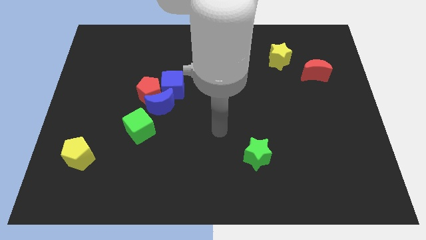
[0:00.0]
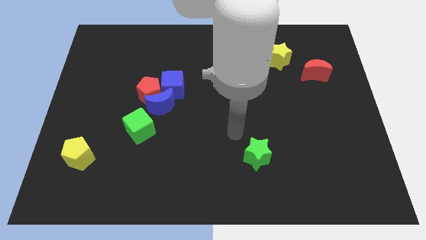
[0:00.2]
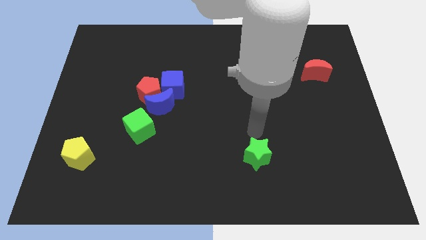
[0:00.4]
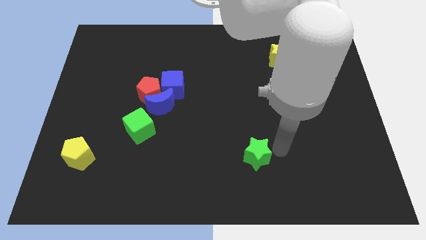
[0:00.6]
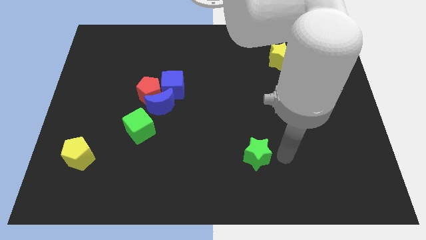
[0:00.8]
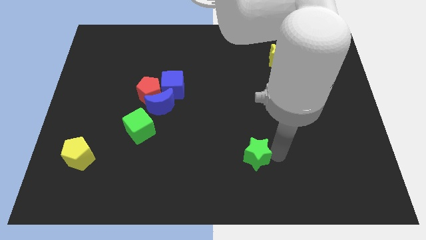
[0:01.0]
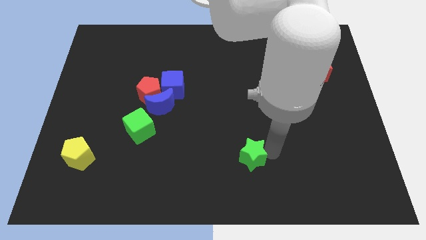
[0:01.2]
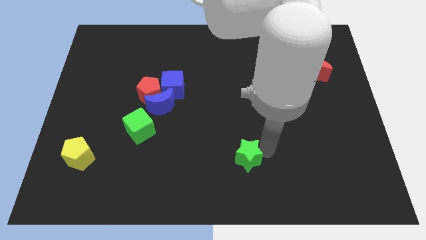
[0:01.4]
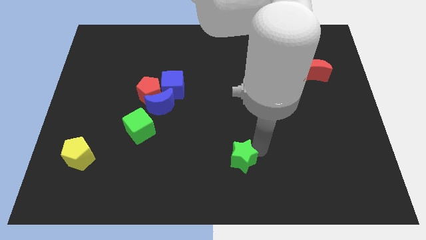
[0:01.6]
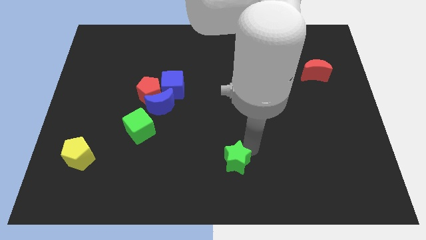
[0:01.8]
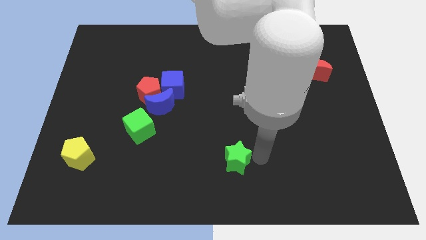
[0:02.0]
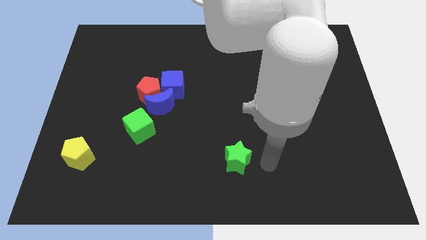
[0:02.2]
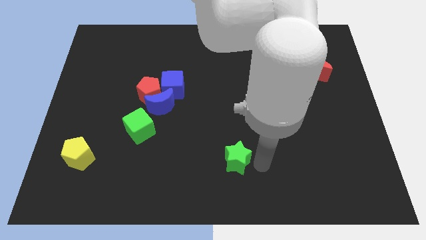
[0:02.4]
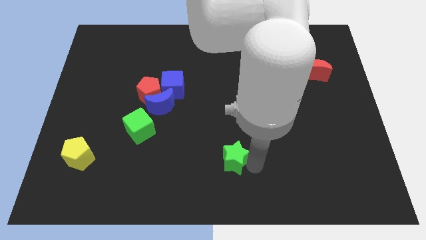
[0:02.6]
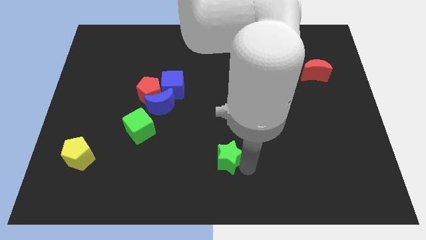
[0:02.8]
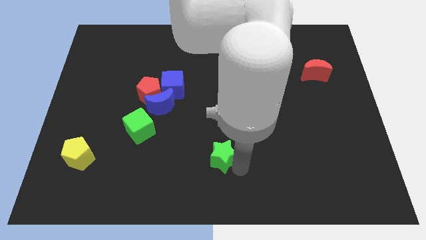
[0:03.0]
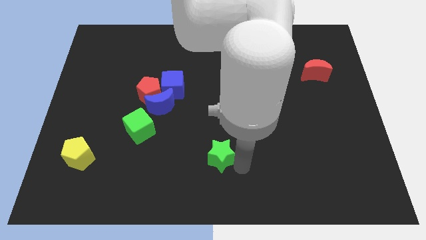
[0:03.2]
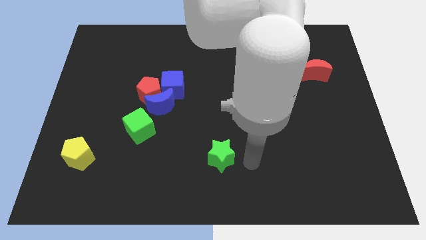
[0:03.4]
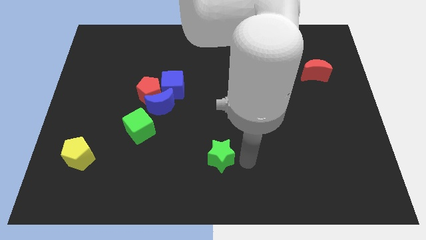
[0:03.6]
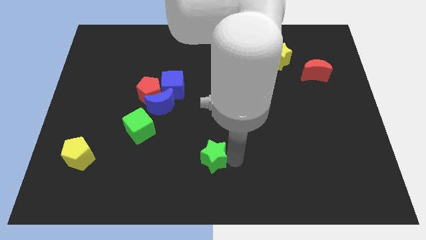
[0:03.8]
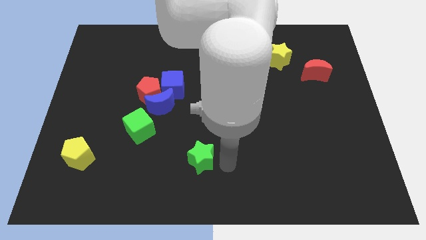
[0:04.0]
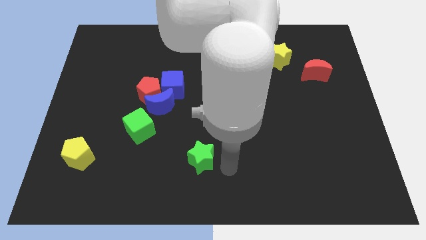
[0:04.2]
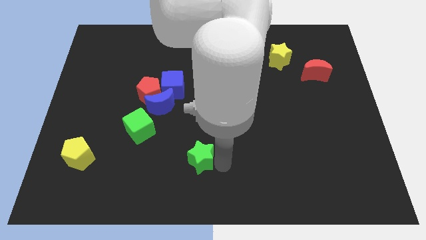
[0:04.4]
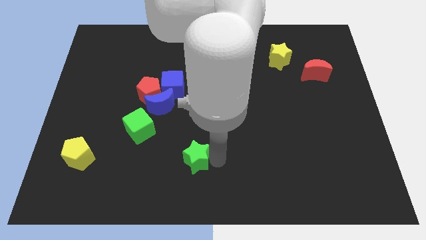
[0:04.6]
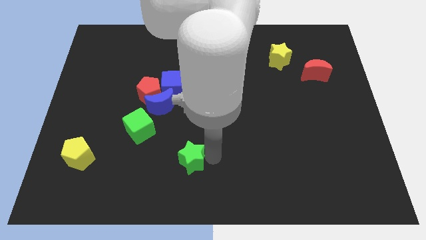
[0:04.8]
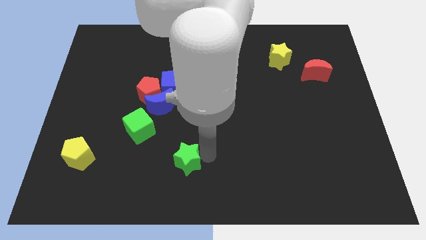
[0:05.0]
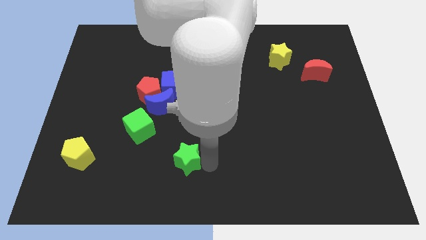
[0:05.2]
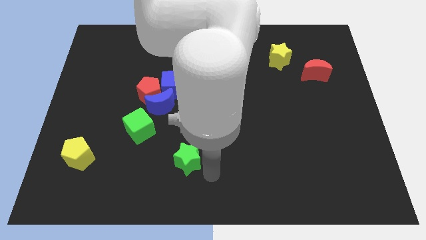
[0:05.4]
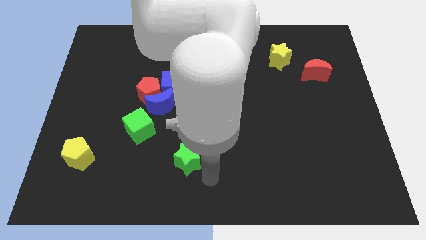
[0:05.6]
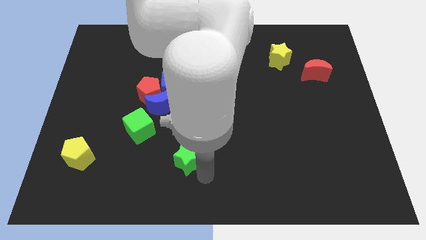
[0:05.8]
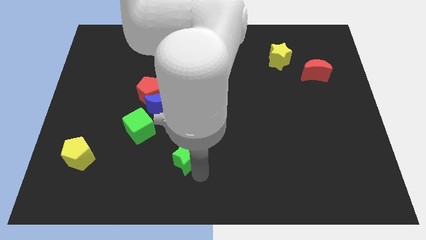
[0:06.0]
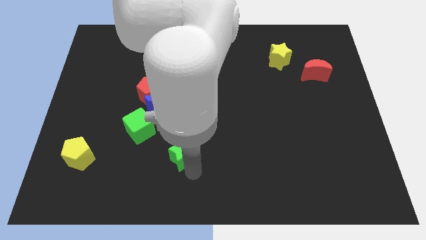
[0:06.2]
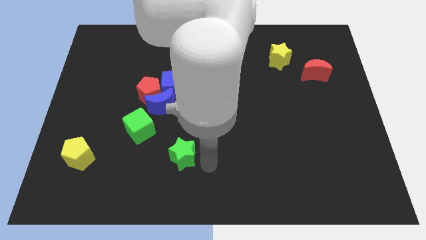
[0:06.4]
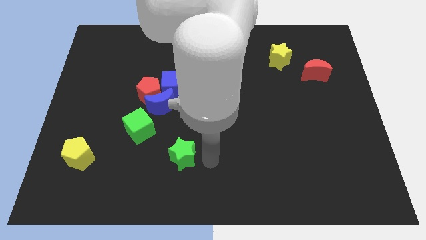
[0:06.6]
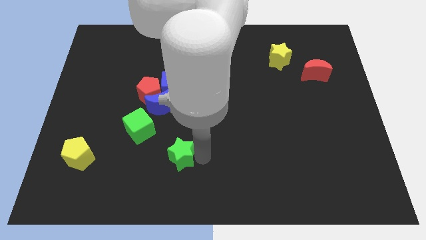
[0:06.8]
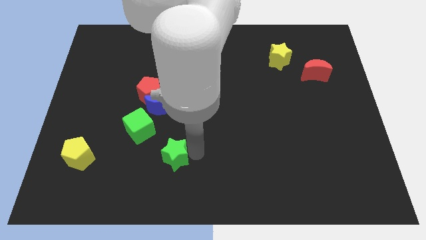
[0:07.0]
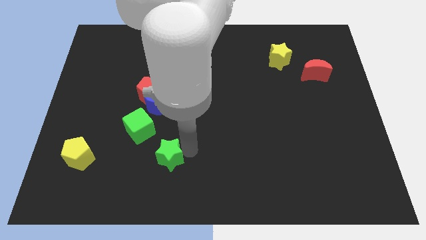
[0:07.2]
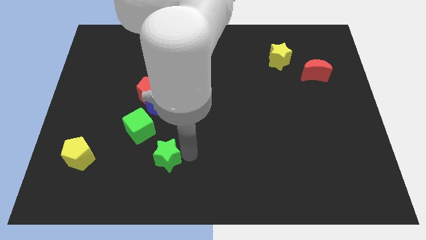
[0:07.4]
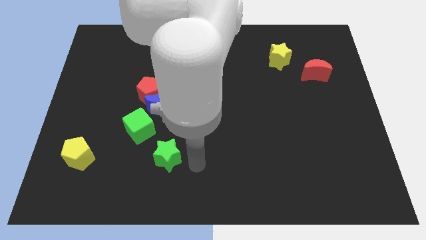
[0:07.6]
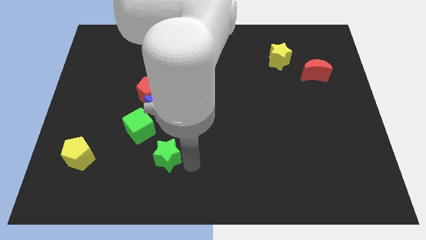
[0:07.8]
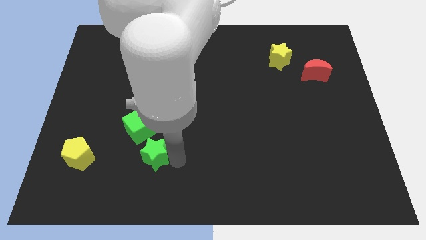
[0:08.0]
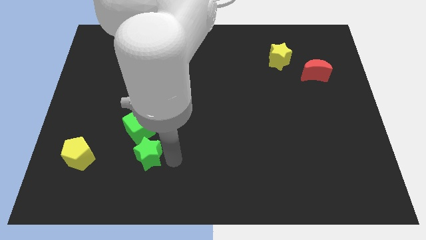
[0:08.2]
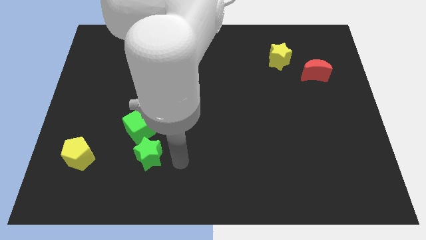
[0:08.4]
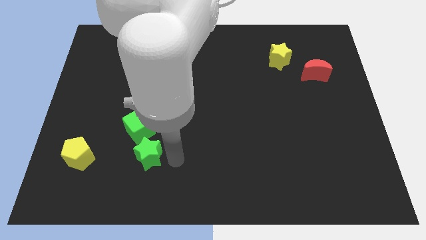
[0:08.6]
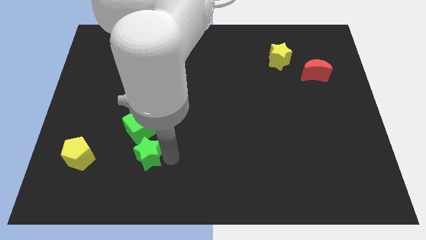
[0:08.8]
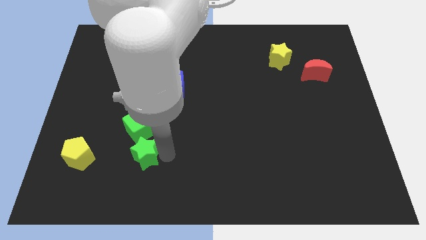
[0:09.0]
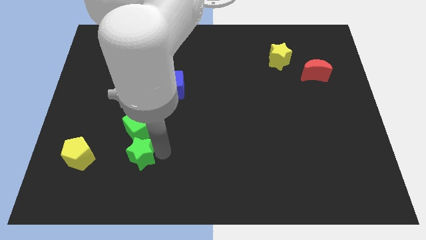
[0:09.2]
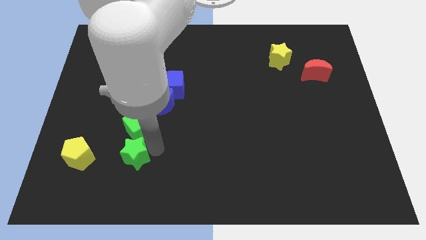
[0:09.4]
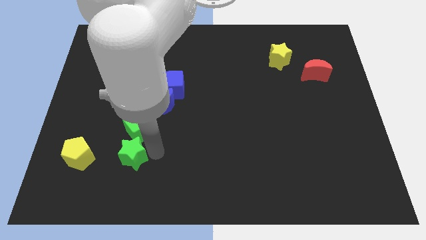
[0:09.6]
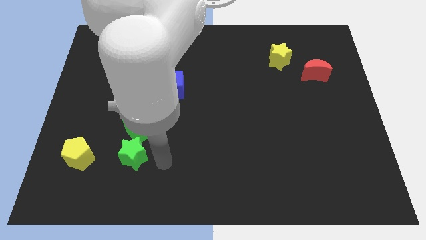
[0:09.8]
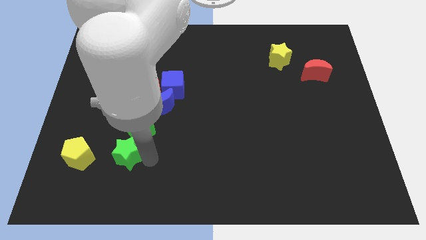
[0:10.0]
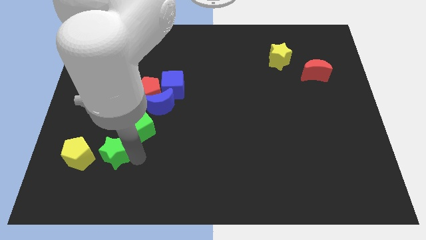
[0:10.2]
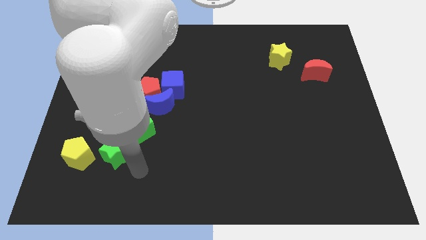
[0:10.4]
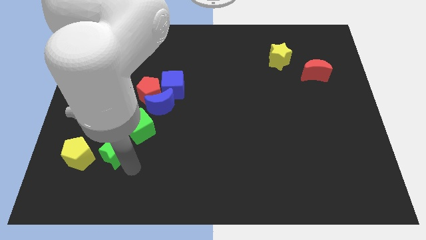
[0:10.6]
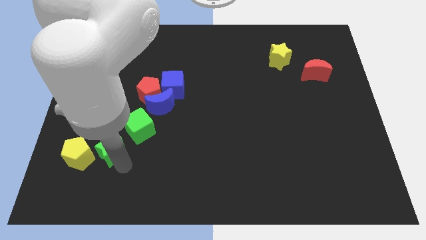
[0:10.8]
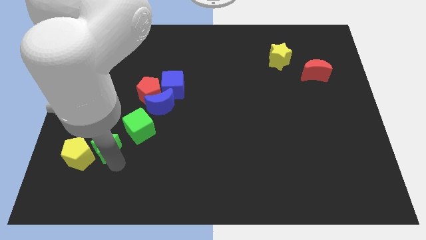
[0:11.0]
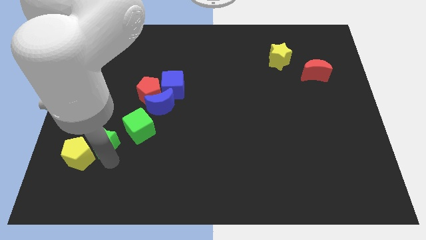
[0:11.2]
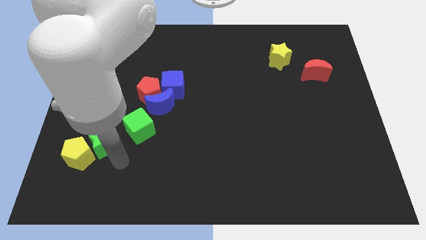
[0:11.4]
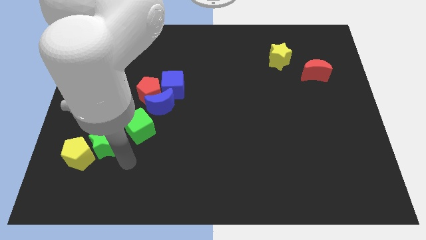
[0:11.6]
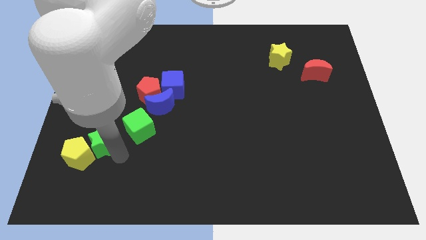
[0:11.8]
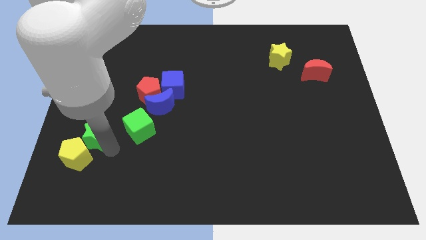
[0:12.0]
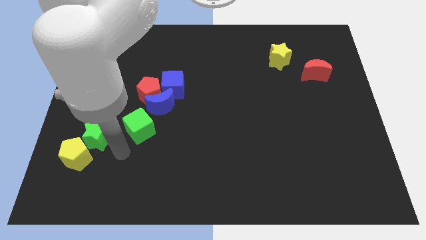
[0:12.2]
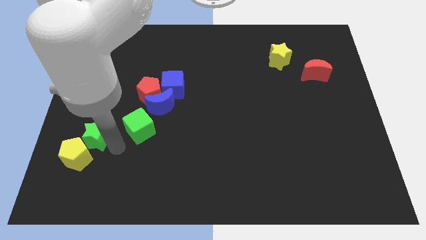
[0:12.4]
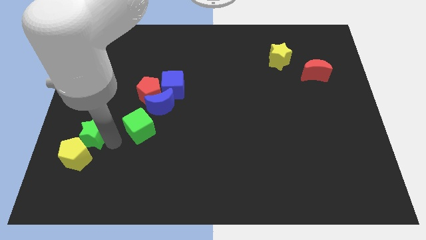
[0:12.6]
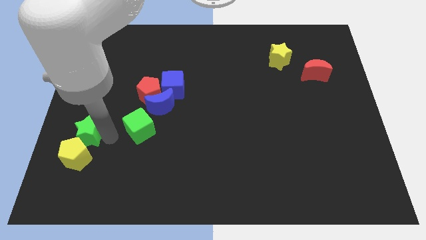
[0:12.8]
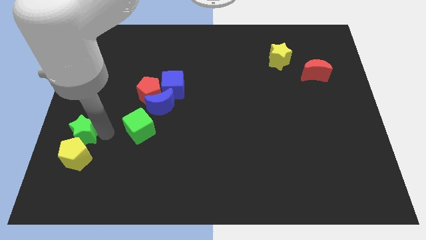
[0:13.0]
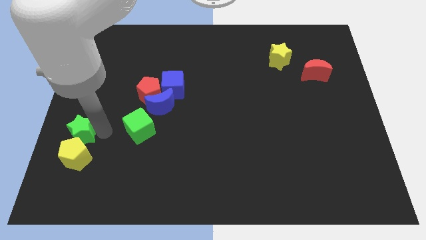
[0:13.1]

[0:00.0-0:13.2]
move the green star to the center left
